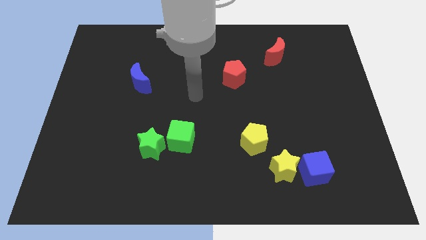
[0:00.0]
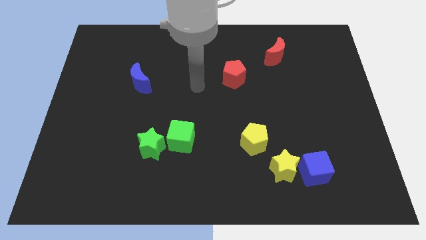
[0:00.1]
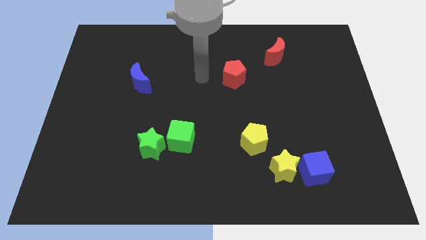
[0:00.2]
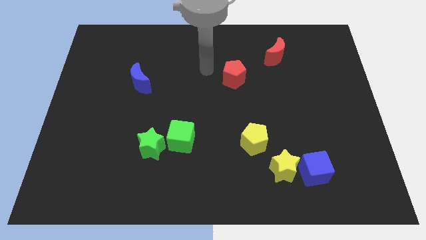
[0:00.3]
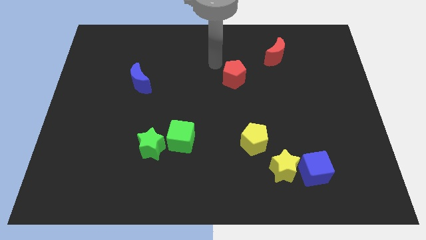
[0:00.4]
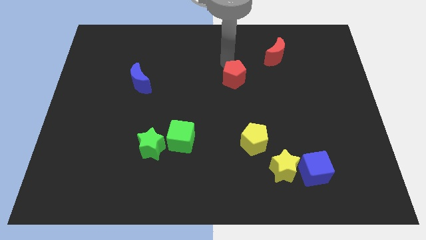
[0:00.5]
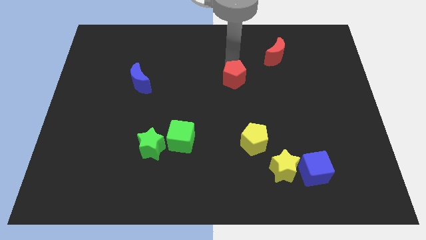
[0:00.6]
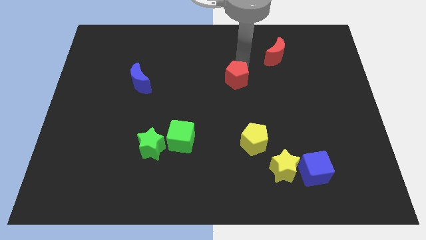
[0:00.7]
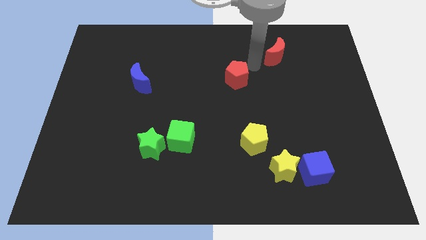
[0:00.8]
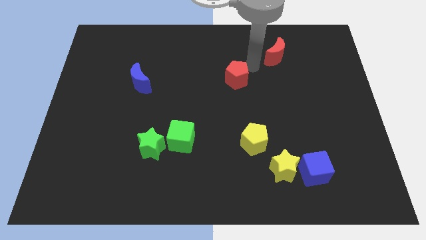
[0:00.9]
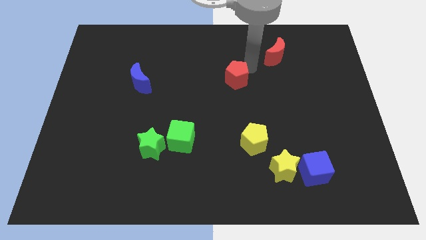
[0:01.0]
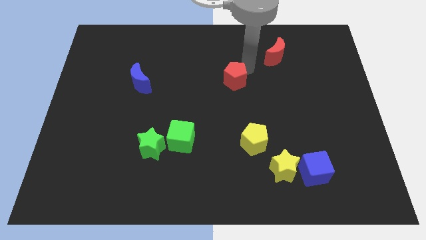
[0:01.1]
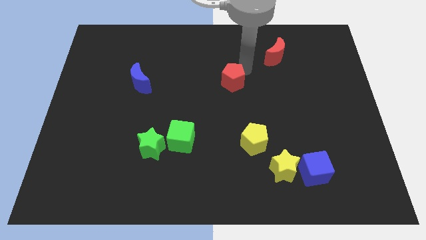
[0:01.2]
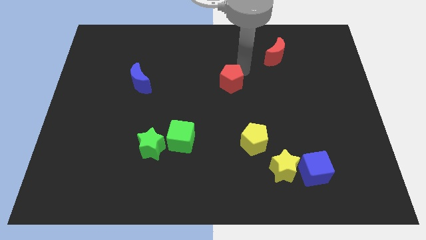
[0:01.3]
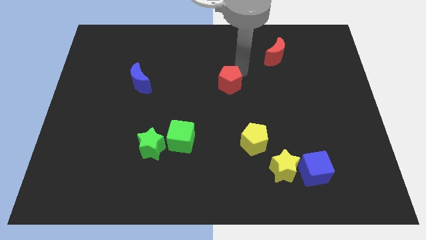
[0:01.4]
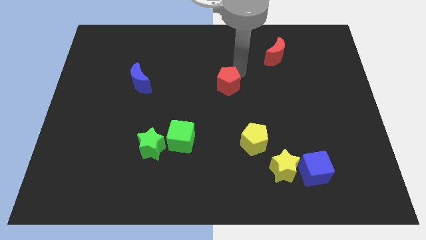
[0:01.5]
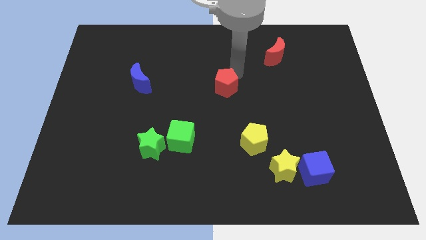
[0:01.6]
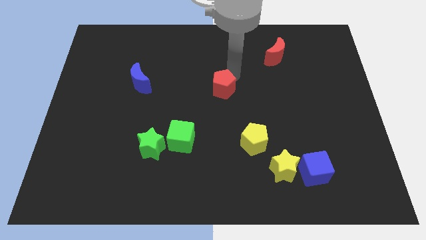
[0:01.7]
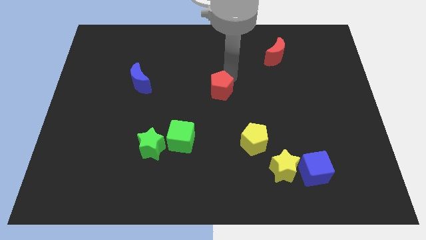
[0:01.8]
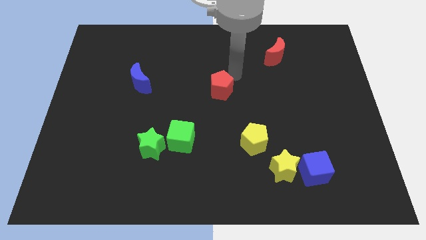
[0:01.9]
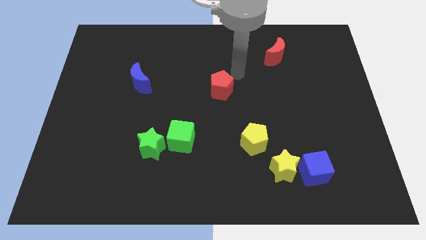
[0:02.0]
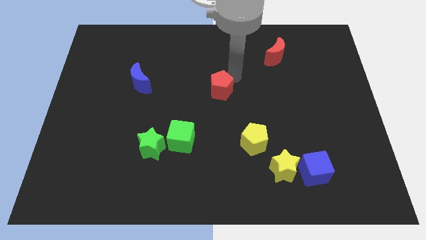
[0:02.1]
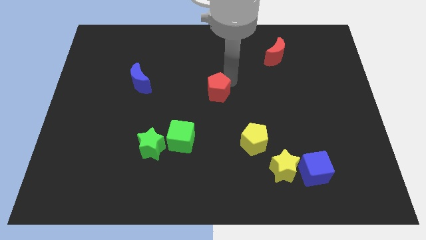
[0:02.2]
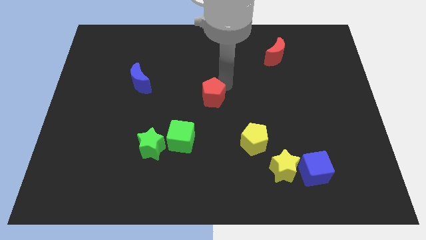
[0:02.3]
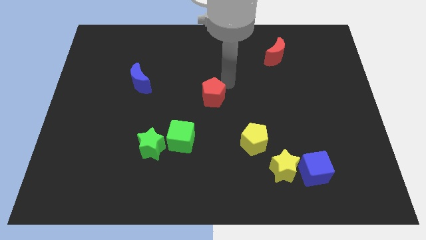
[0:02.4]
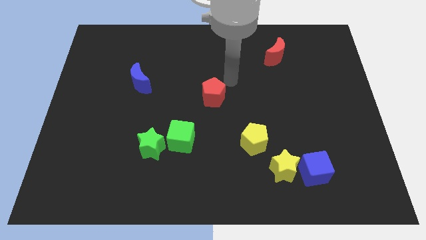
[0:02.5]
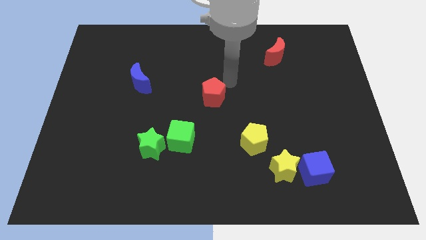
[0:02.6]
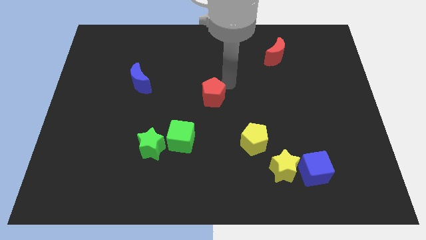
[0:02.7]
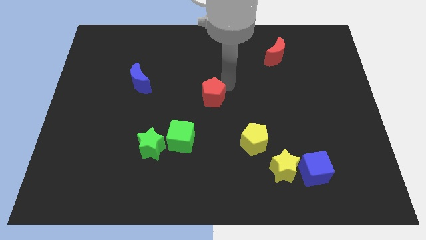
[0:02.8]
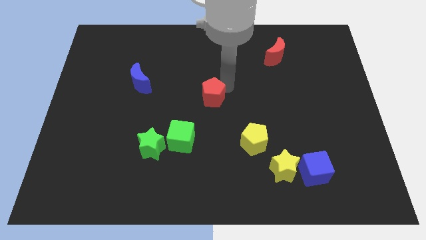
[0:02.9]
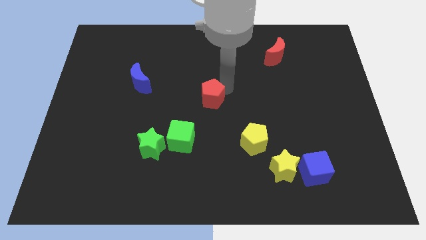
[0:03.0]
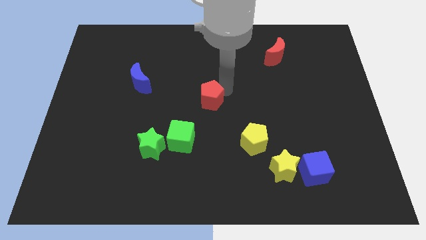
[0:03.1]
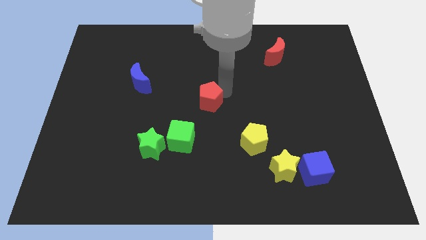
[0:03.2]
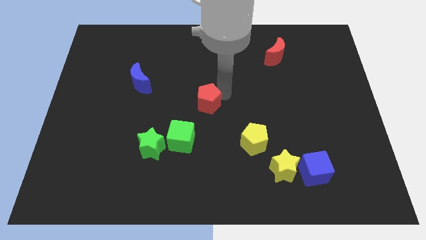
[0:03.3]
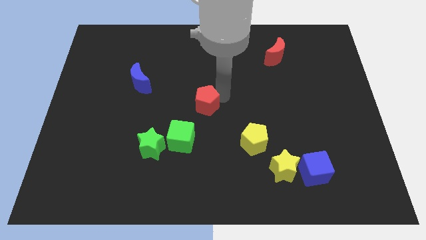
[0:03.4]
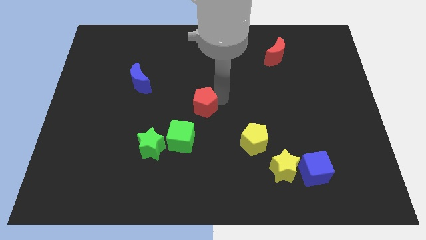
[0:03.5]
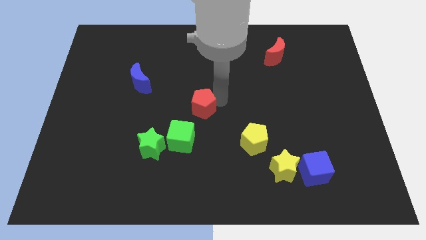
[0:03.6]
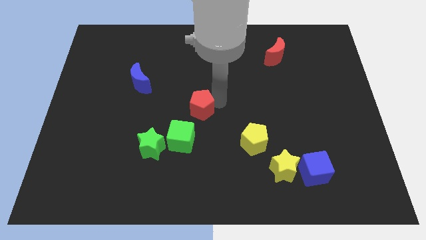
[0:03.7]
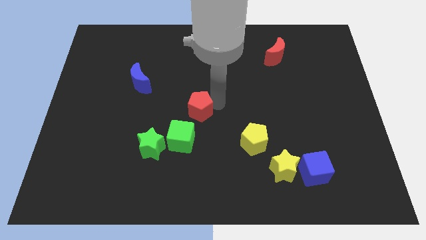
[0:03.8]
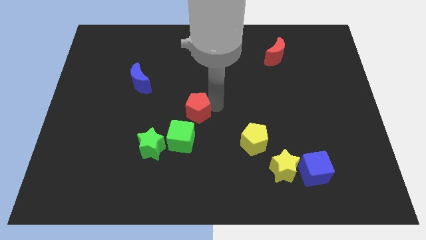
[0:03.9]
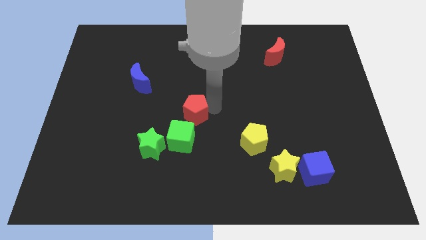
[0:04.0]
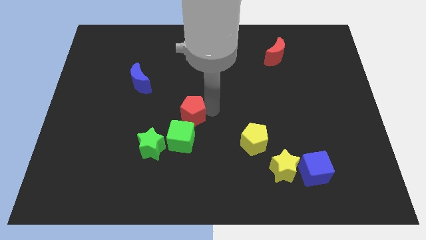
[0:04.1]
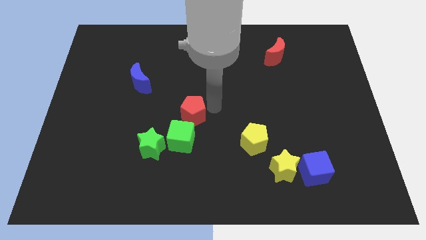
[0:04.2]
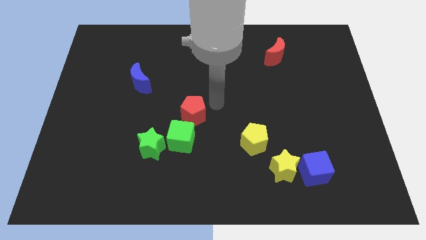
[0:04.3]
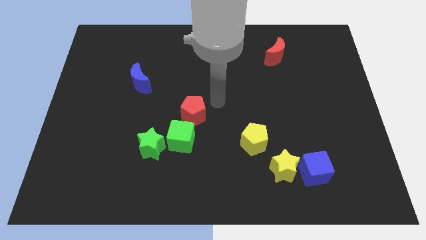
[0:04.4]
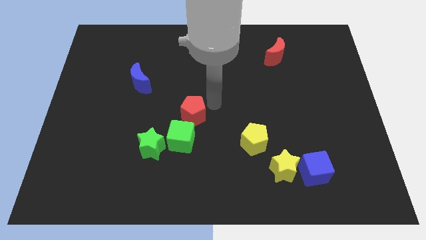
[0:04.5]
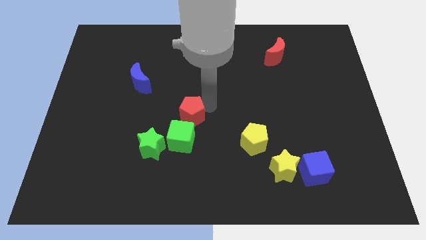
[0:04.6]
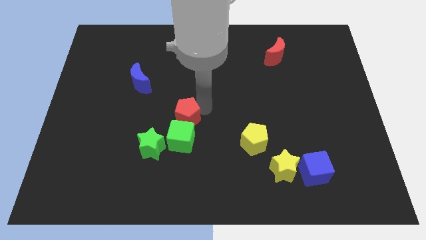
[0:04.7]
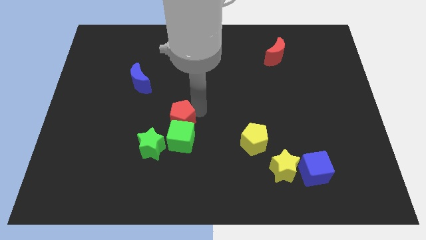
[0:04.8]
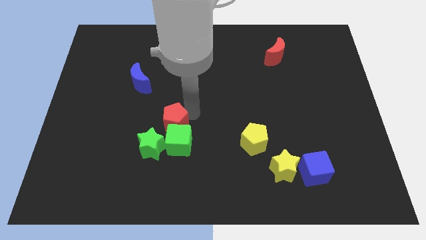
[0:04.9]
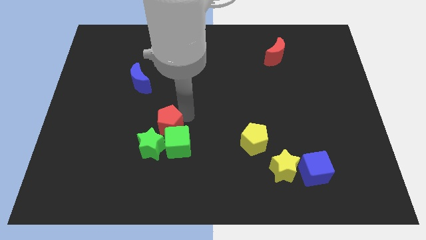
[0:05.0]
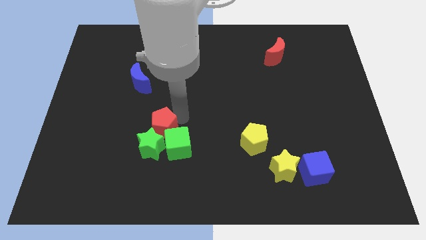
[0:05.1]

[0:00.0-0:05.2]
move the red pentagon next to the green star

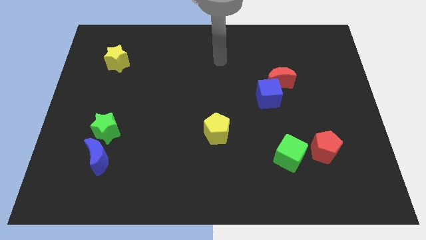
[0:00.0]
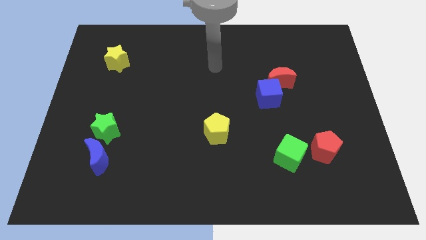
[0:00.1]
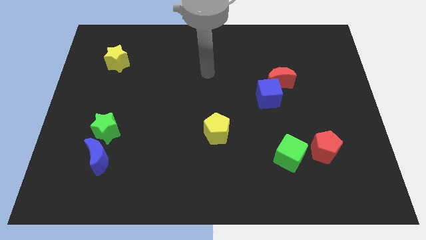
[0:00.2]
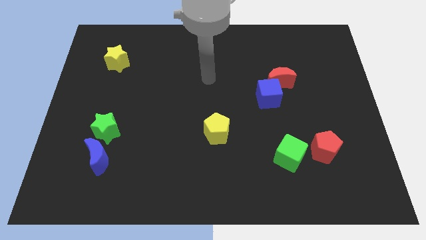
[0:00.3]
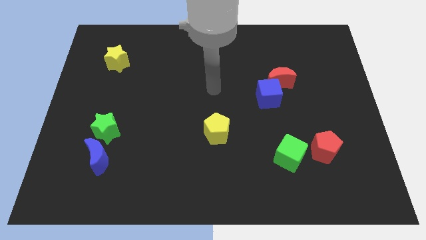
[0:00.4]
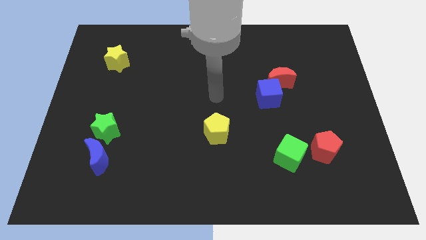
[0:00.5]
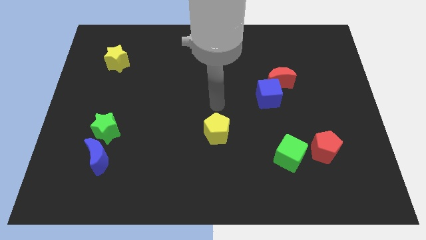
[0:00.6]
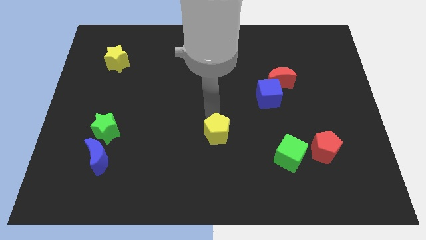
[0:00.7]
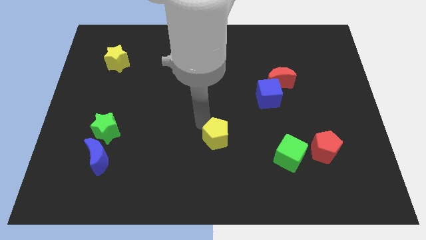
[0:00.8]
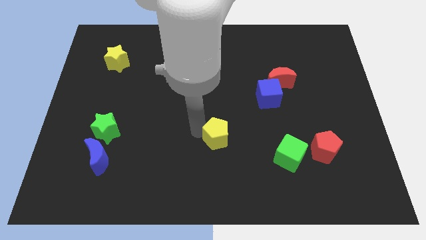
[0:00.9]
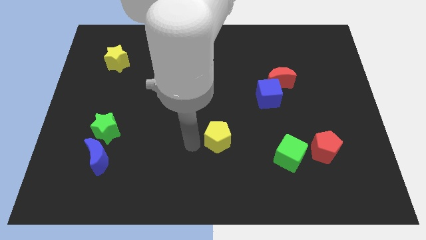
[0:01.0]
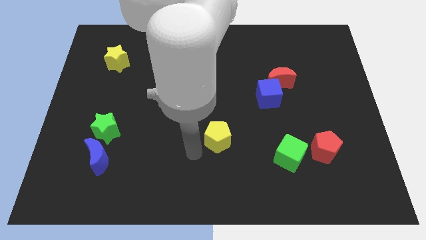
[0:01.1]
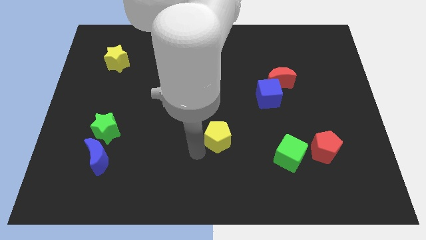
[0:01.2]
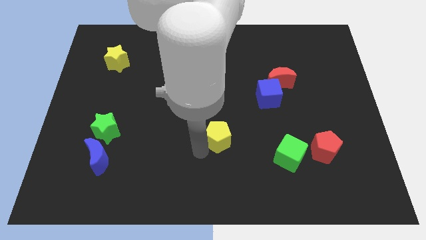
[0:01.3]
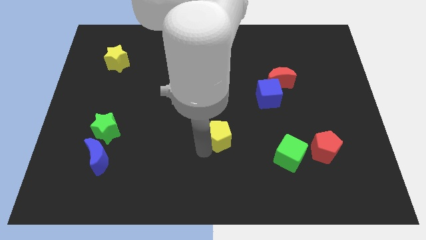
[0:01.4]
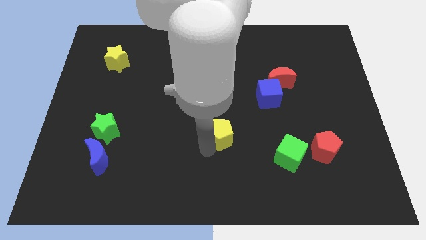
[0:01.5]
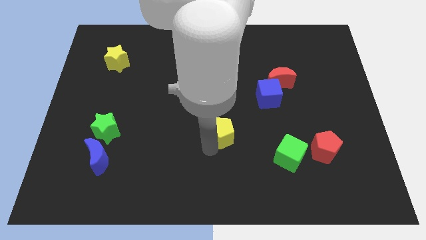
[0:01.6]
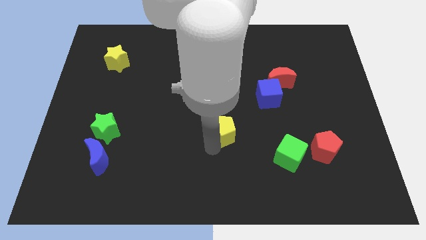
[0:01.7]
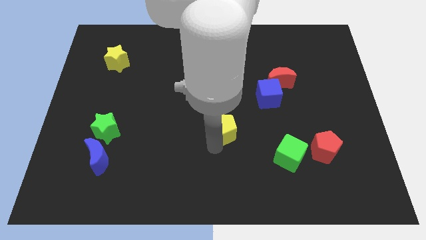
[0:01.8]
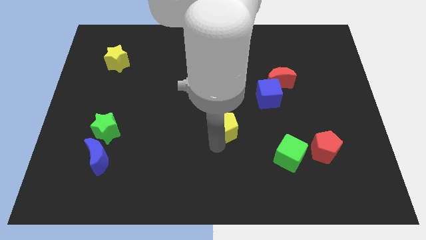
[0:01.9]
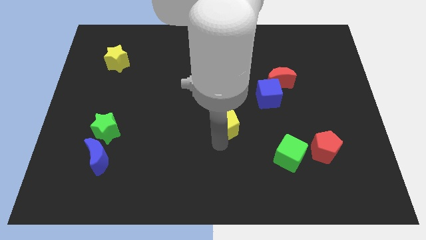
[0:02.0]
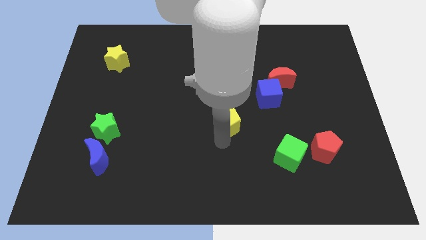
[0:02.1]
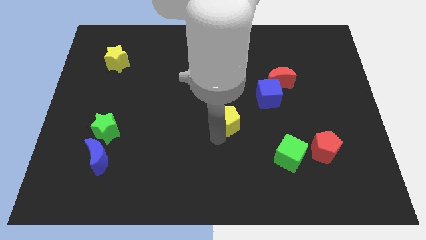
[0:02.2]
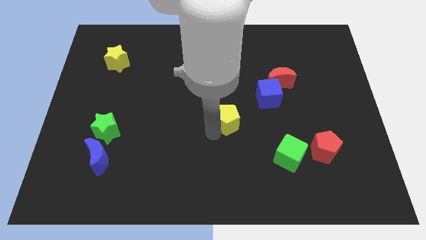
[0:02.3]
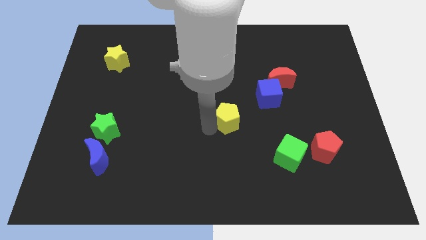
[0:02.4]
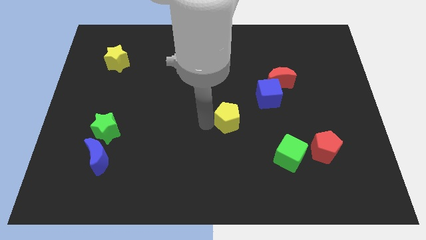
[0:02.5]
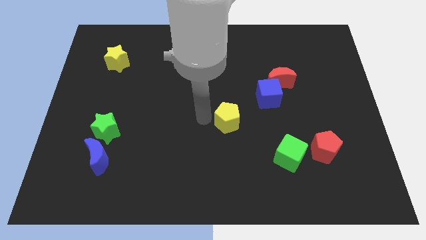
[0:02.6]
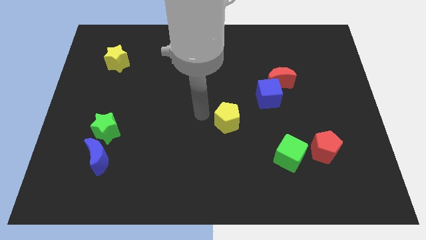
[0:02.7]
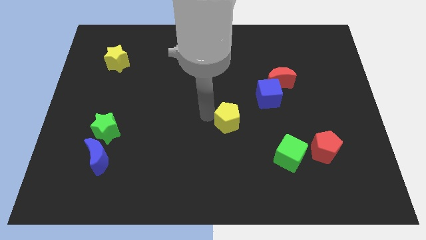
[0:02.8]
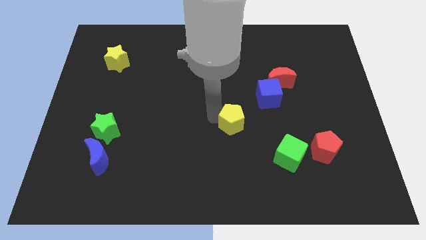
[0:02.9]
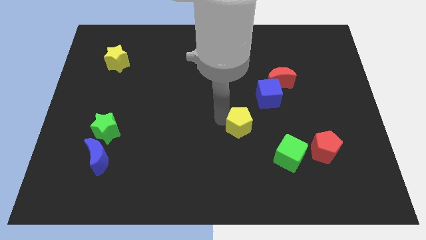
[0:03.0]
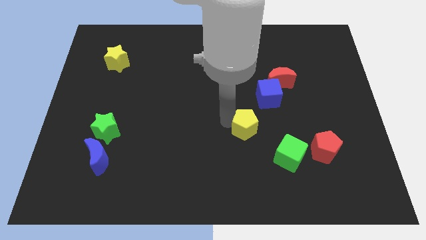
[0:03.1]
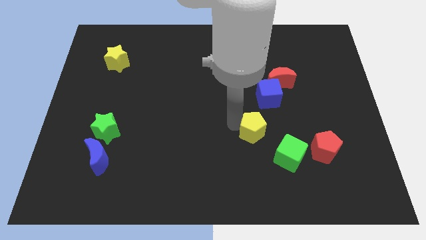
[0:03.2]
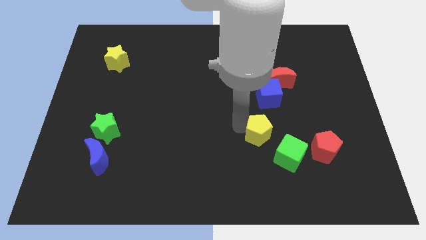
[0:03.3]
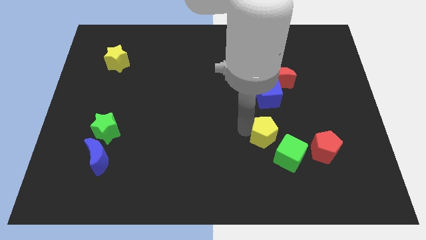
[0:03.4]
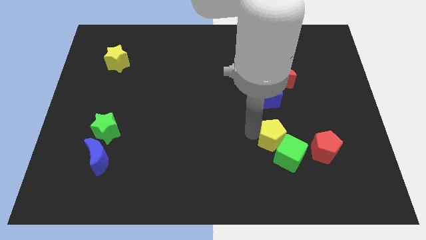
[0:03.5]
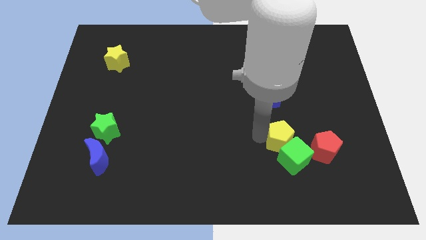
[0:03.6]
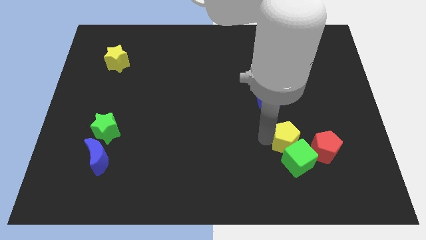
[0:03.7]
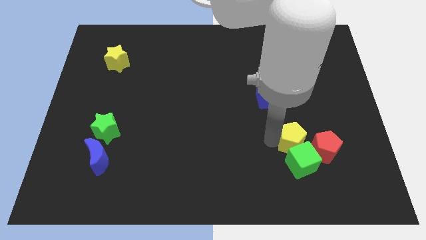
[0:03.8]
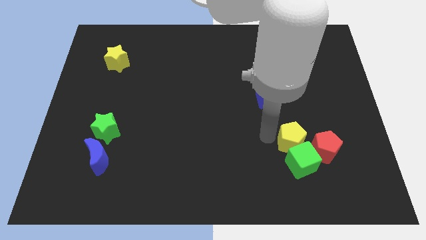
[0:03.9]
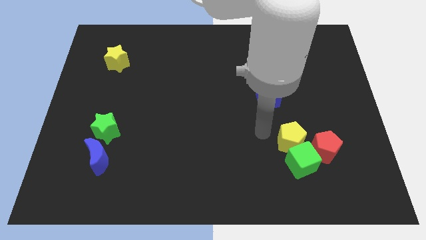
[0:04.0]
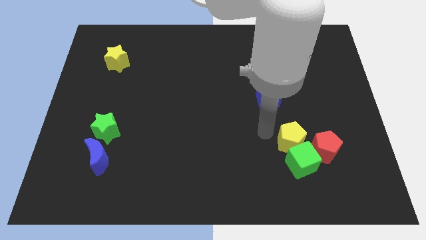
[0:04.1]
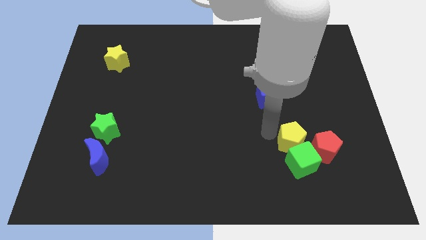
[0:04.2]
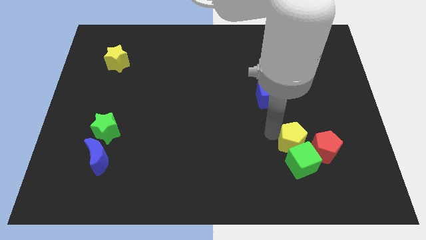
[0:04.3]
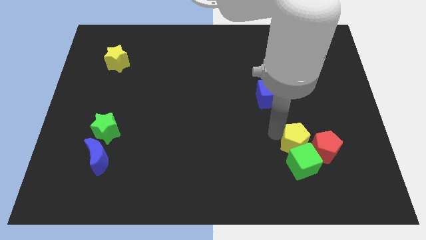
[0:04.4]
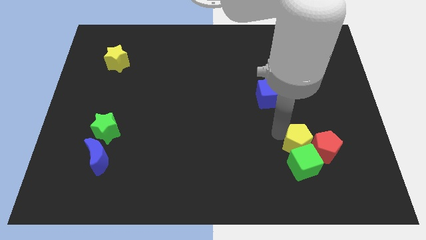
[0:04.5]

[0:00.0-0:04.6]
push the yellow pentagon close to the red pentagon
